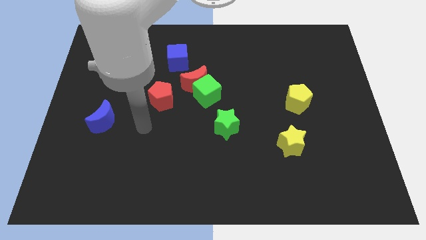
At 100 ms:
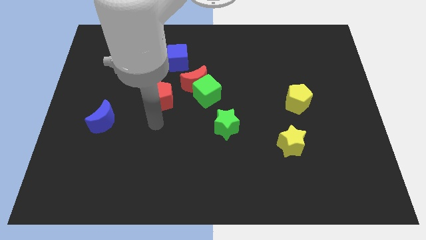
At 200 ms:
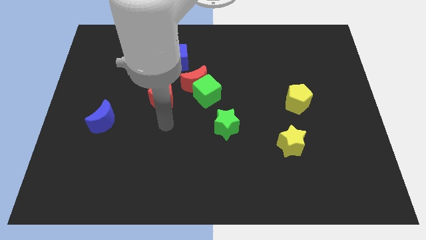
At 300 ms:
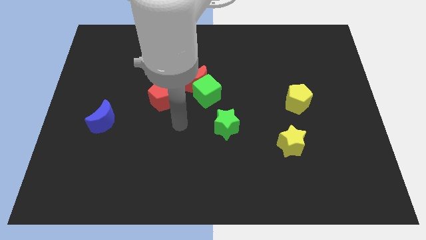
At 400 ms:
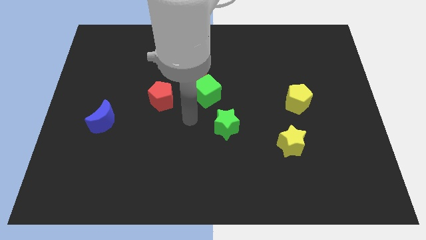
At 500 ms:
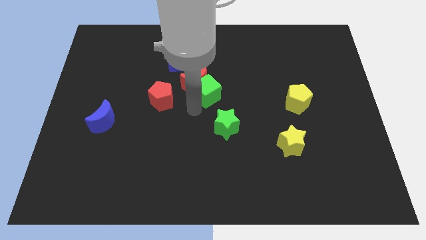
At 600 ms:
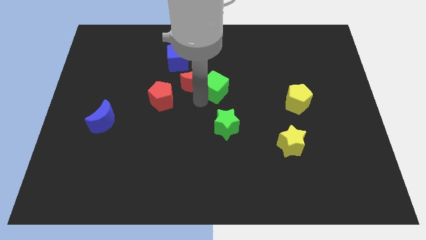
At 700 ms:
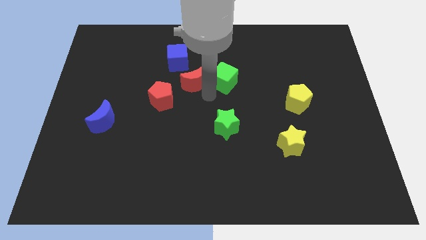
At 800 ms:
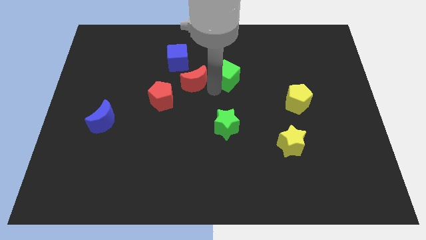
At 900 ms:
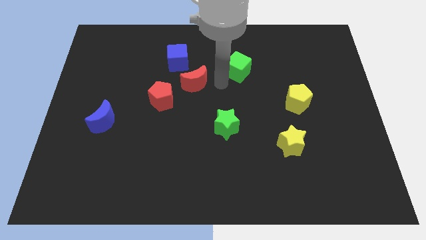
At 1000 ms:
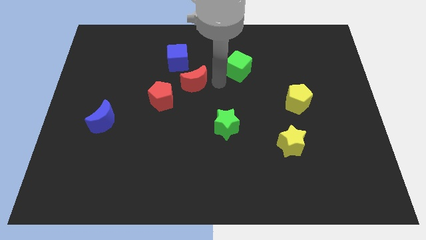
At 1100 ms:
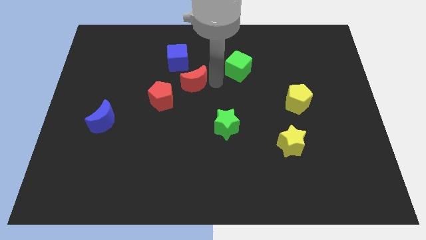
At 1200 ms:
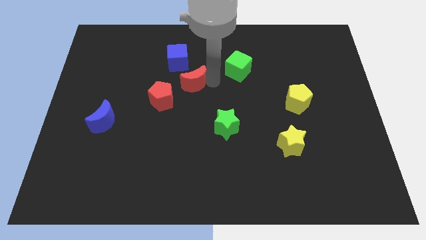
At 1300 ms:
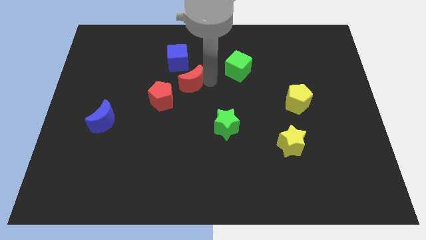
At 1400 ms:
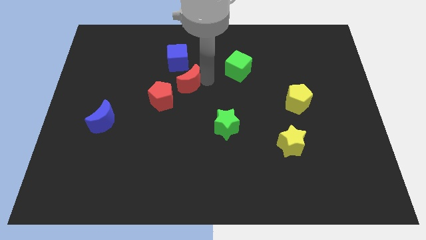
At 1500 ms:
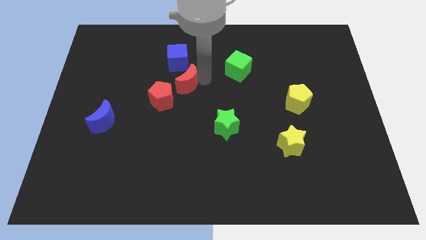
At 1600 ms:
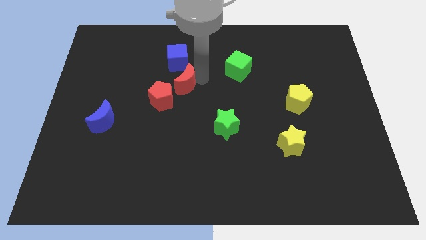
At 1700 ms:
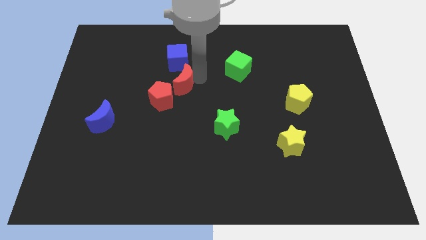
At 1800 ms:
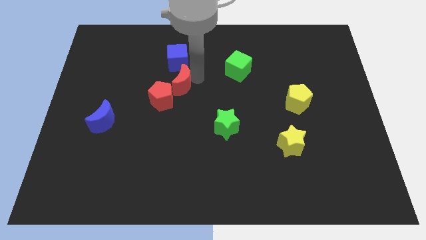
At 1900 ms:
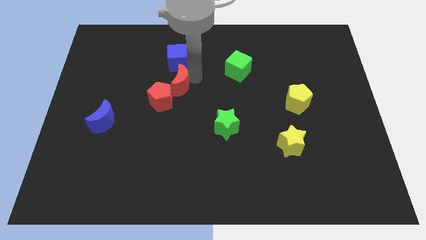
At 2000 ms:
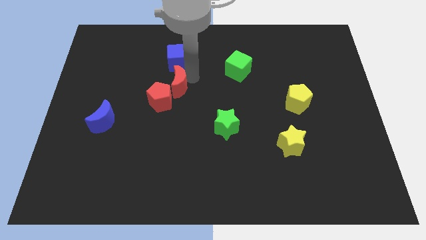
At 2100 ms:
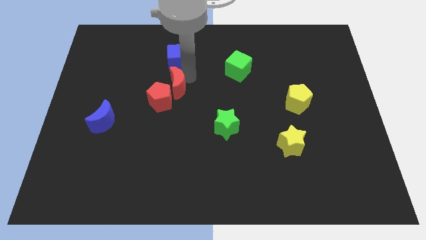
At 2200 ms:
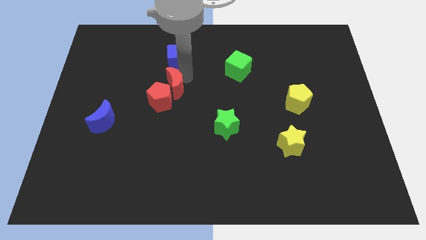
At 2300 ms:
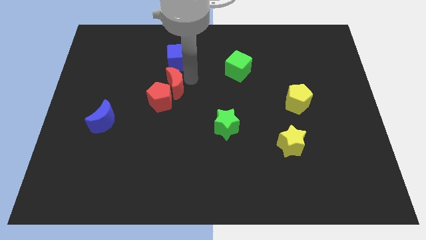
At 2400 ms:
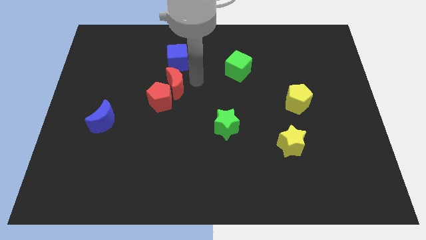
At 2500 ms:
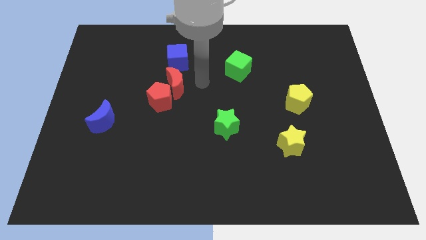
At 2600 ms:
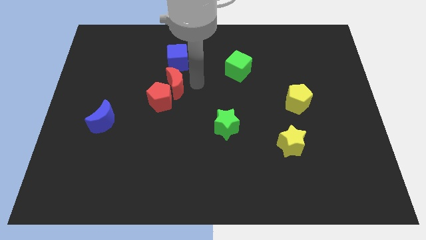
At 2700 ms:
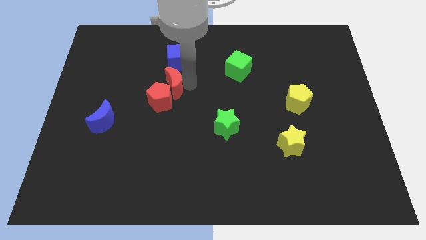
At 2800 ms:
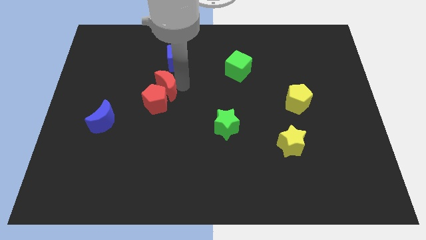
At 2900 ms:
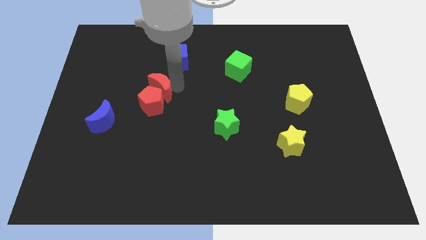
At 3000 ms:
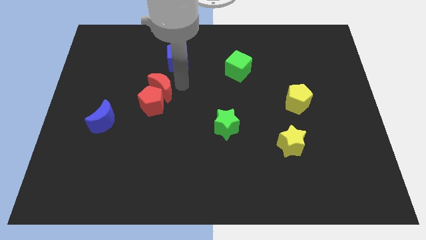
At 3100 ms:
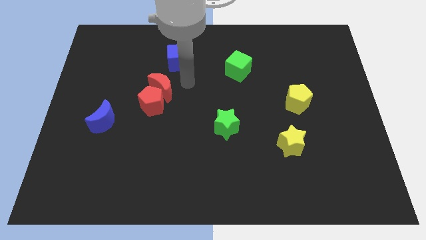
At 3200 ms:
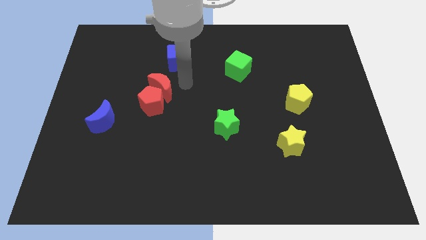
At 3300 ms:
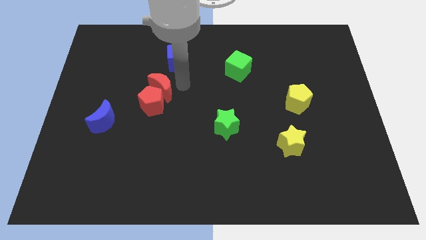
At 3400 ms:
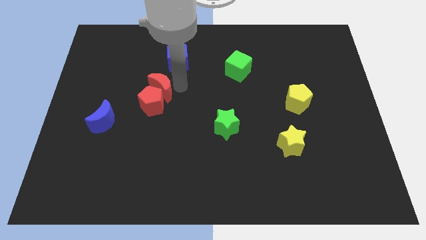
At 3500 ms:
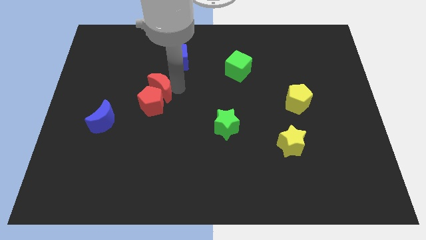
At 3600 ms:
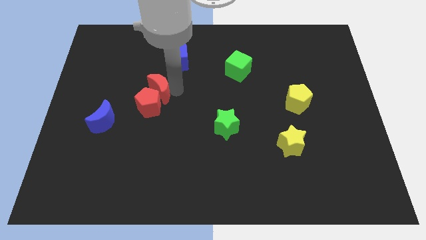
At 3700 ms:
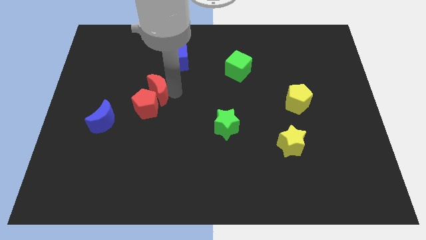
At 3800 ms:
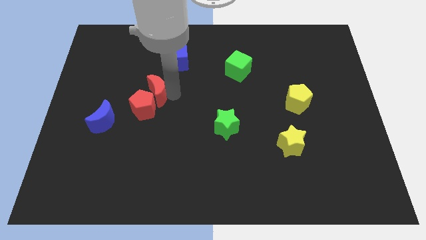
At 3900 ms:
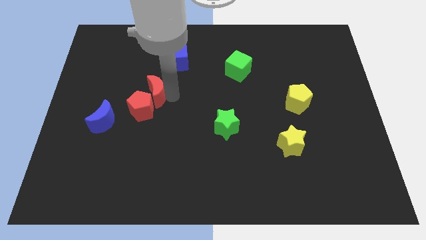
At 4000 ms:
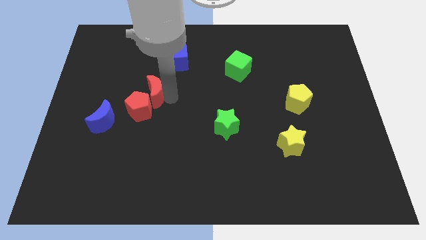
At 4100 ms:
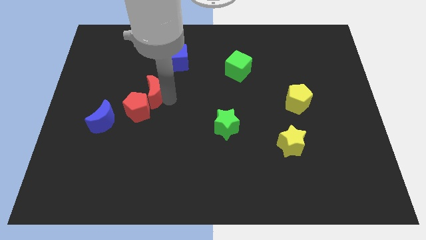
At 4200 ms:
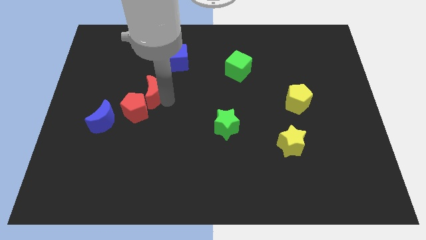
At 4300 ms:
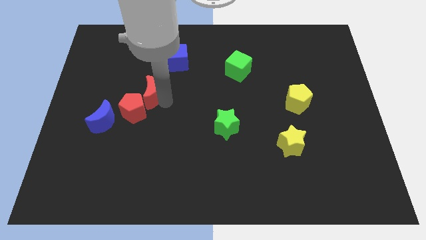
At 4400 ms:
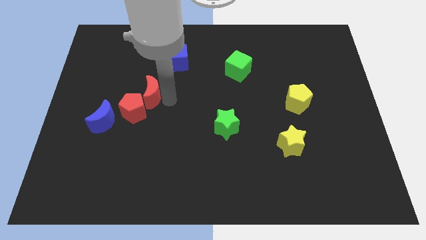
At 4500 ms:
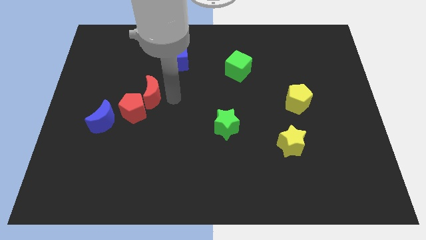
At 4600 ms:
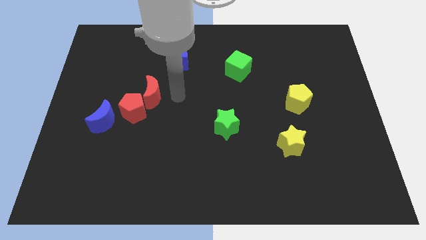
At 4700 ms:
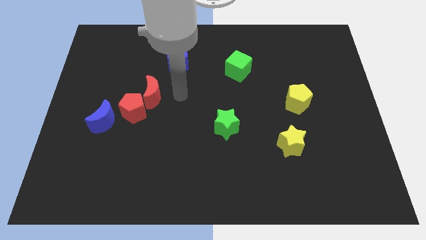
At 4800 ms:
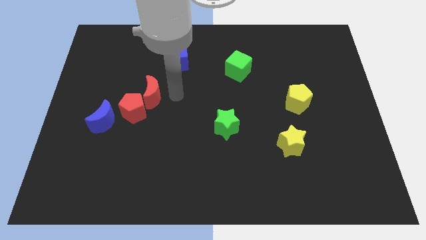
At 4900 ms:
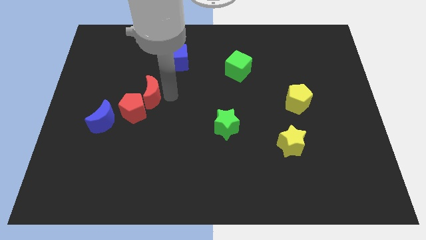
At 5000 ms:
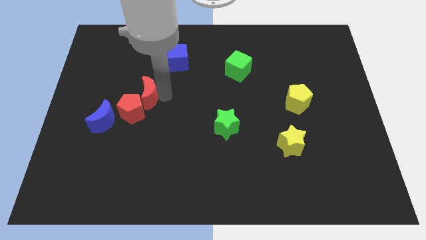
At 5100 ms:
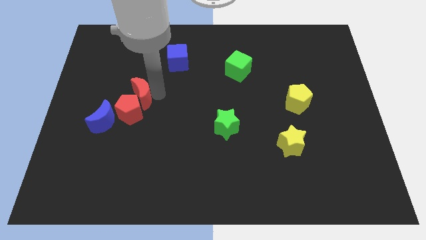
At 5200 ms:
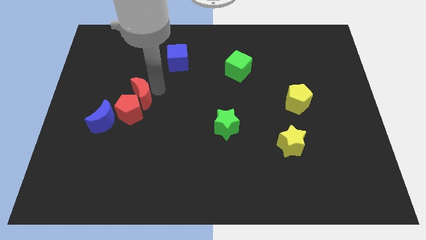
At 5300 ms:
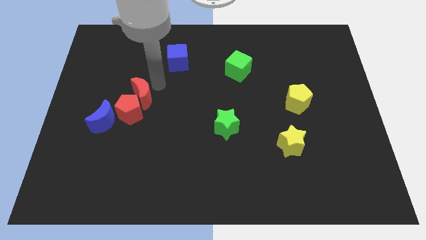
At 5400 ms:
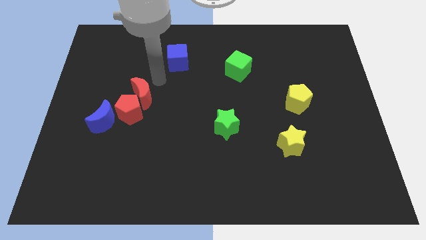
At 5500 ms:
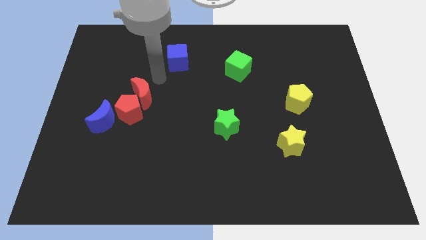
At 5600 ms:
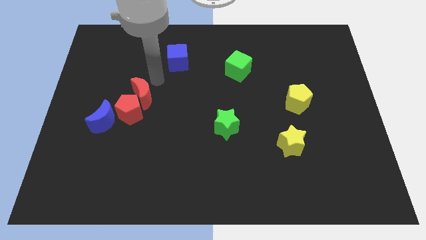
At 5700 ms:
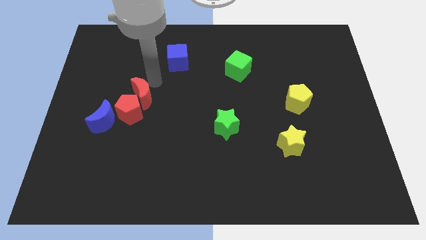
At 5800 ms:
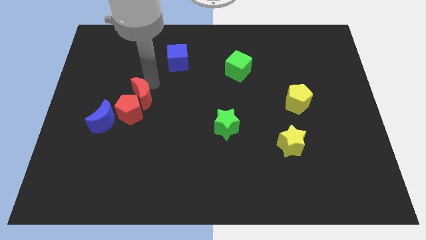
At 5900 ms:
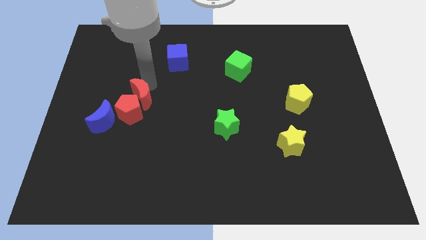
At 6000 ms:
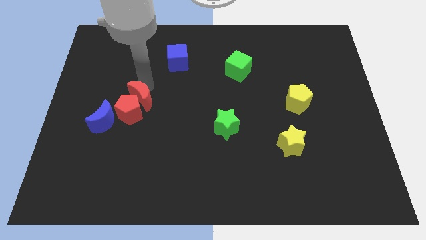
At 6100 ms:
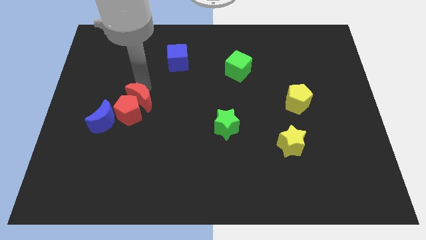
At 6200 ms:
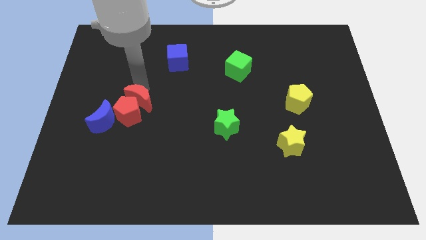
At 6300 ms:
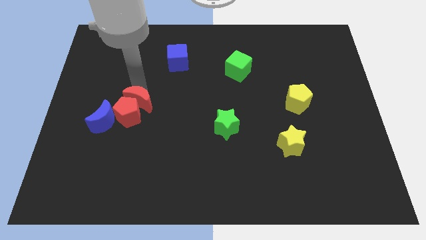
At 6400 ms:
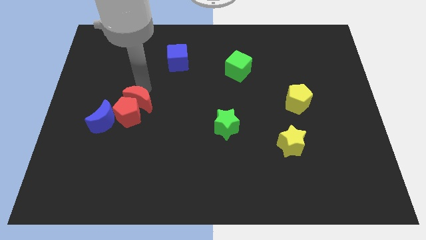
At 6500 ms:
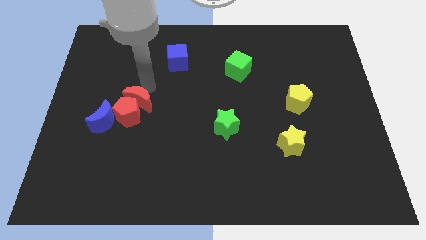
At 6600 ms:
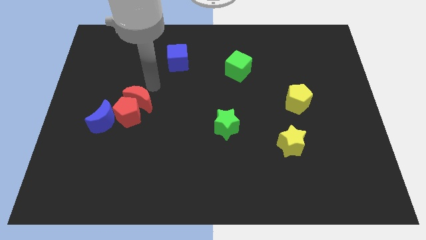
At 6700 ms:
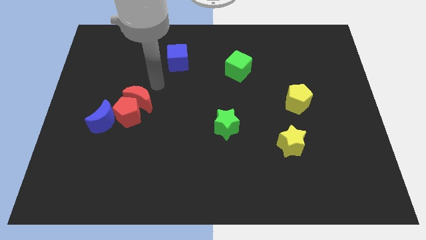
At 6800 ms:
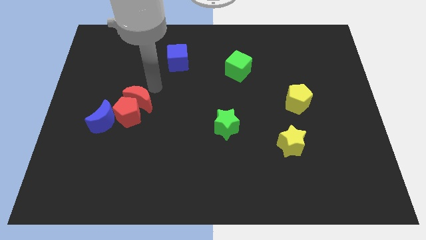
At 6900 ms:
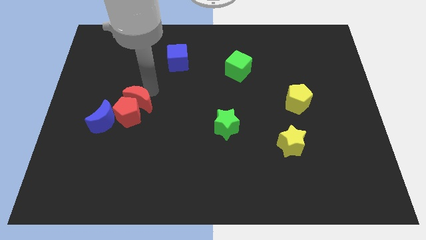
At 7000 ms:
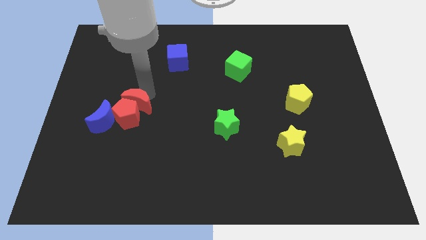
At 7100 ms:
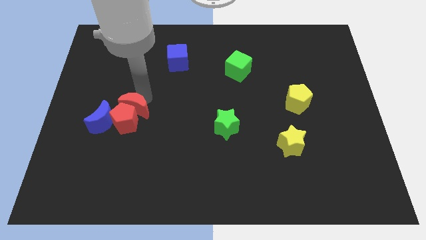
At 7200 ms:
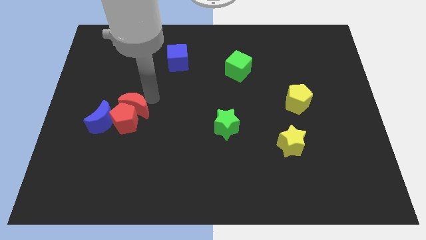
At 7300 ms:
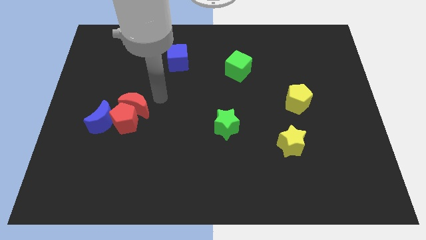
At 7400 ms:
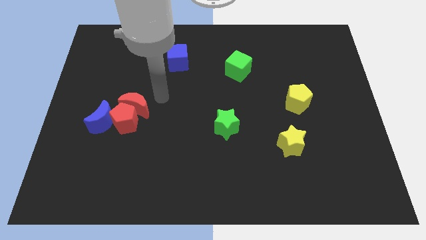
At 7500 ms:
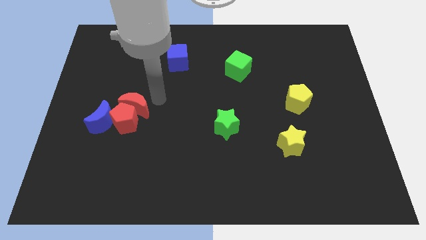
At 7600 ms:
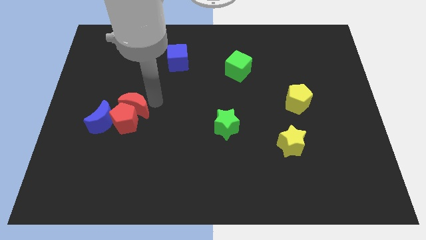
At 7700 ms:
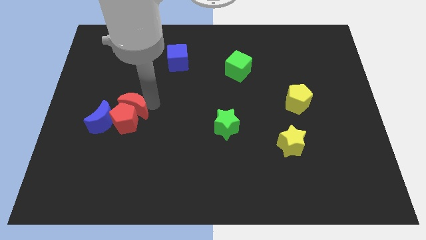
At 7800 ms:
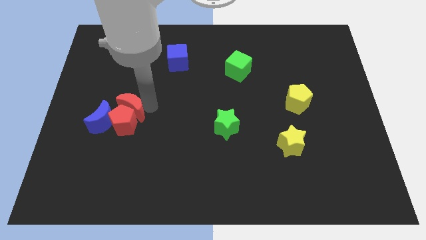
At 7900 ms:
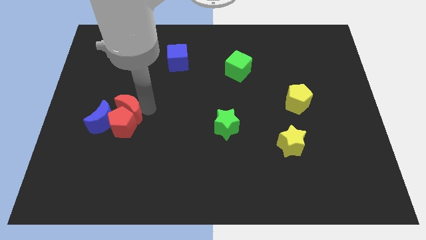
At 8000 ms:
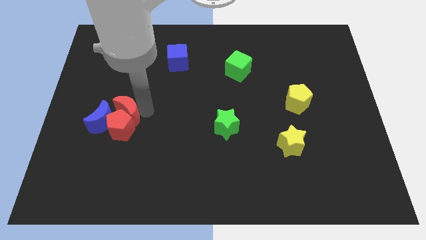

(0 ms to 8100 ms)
push the red moon to the blue moon
